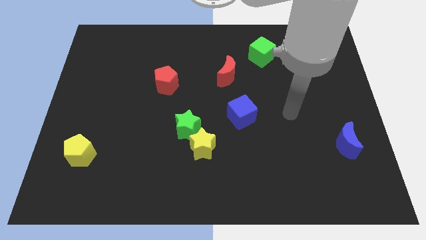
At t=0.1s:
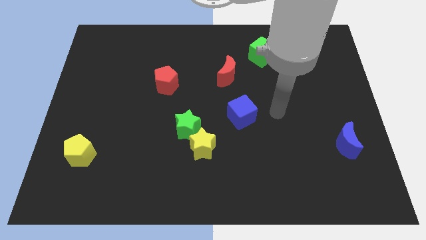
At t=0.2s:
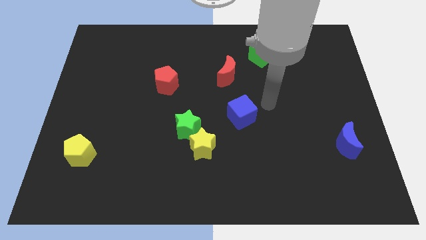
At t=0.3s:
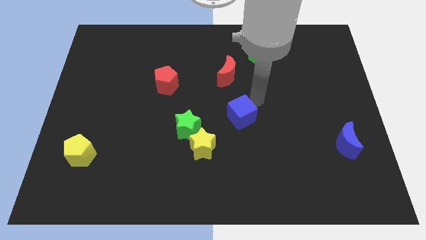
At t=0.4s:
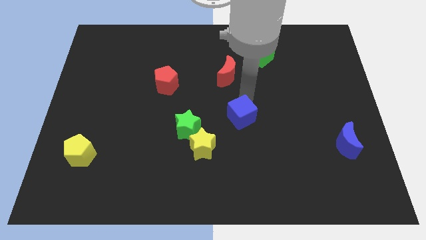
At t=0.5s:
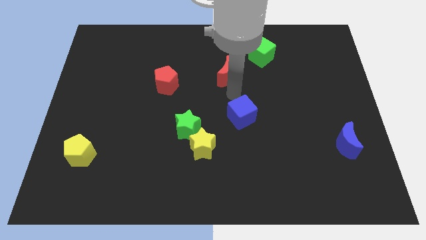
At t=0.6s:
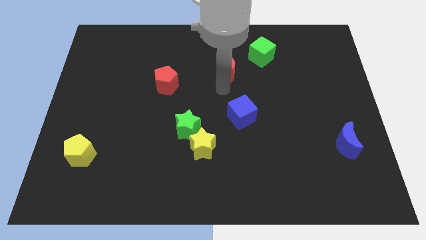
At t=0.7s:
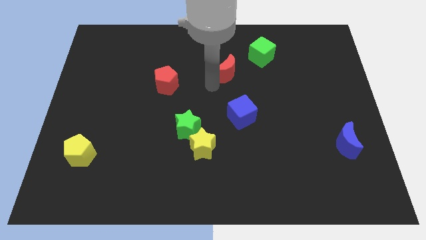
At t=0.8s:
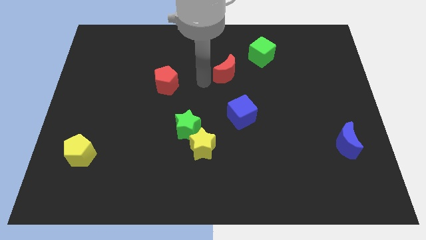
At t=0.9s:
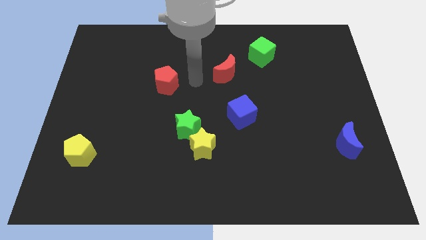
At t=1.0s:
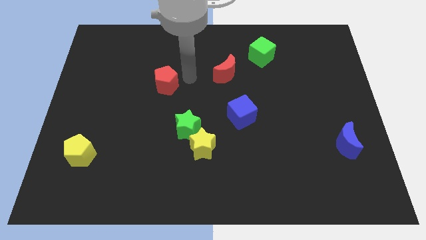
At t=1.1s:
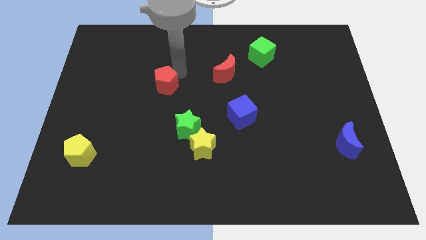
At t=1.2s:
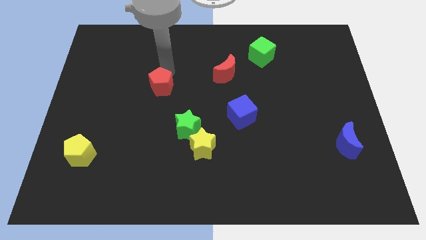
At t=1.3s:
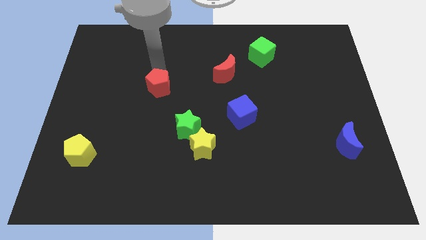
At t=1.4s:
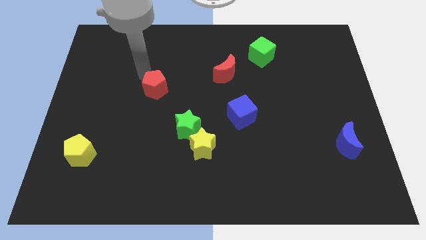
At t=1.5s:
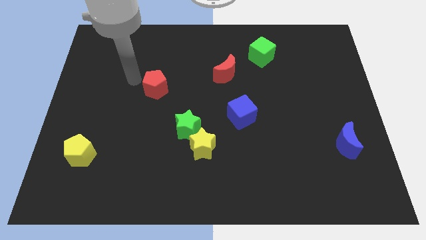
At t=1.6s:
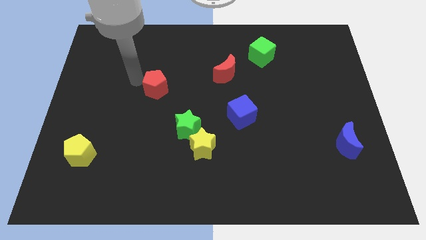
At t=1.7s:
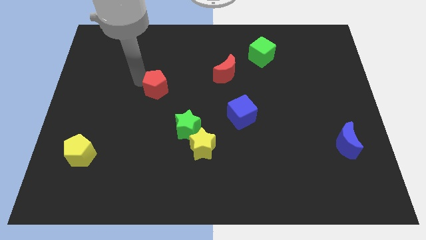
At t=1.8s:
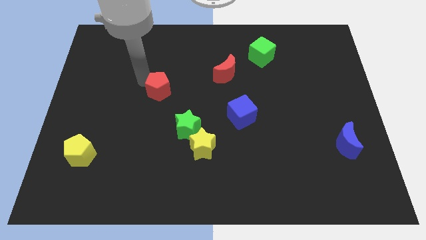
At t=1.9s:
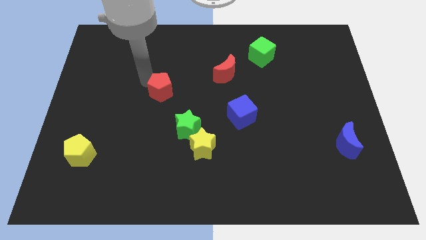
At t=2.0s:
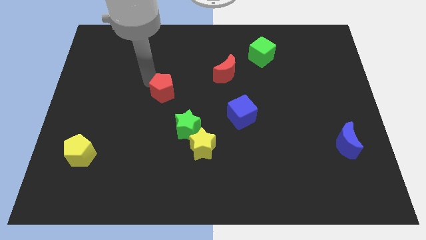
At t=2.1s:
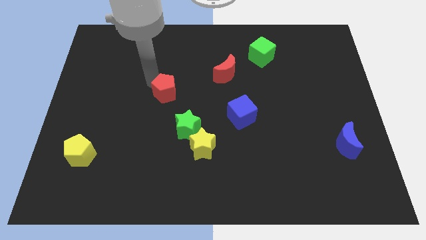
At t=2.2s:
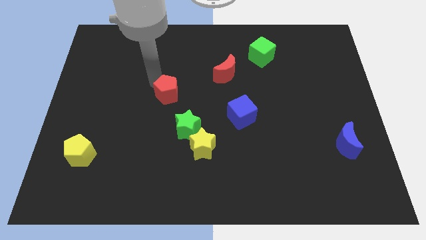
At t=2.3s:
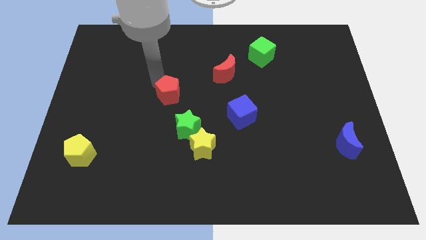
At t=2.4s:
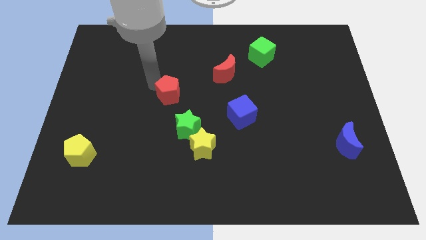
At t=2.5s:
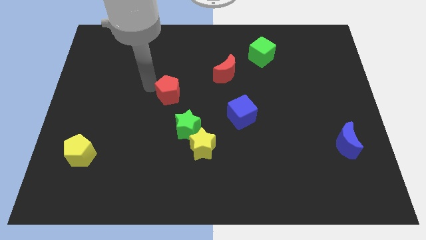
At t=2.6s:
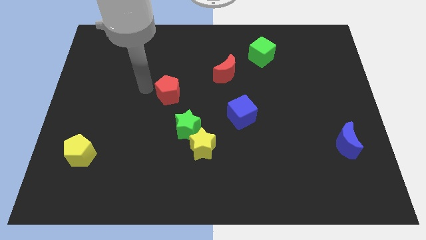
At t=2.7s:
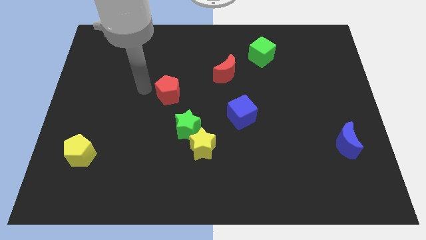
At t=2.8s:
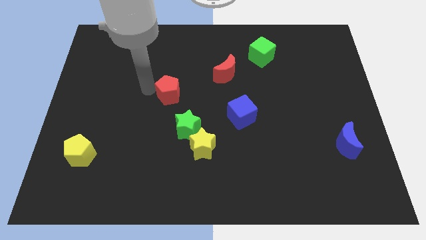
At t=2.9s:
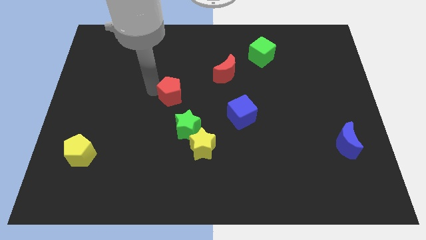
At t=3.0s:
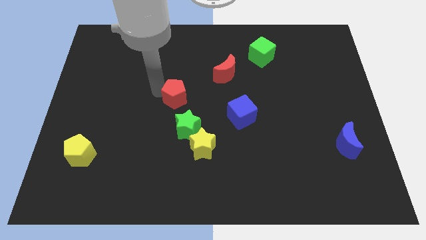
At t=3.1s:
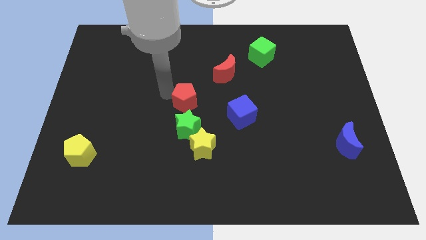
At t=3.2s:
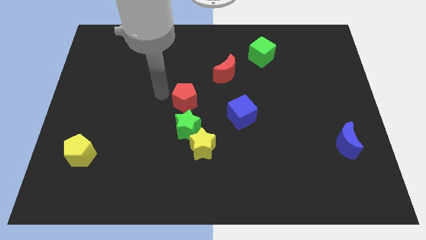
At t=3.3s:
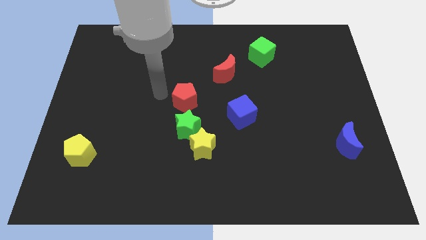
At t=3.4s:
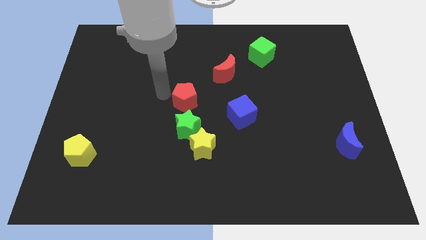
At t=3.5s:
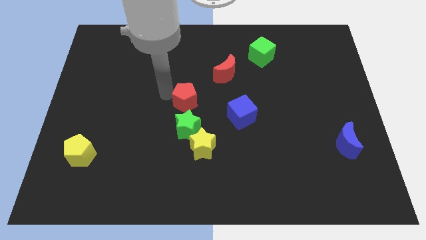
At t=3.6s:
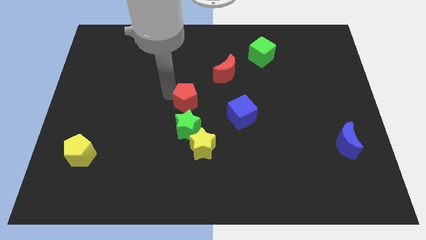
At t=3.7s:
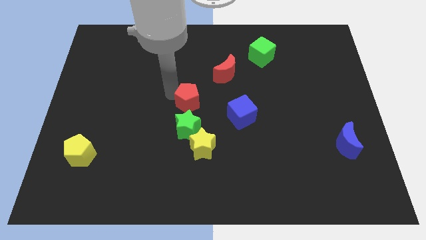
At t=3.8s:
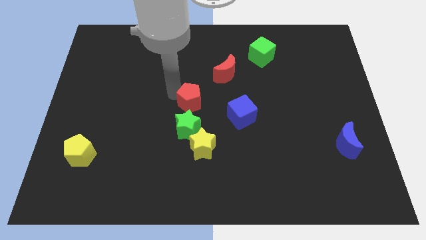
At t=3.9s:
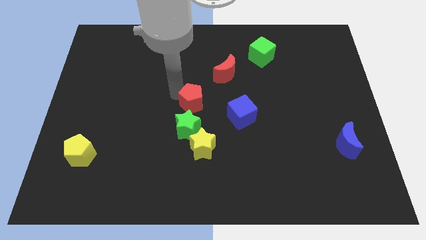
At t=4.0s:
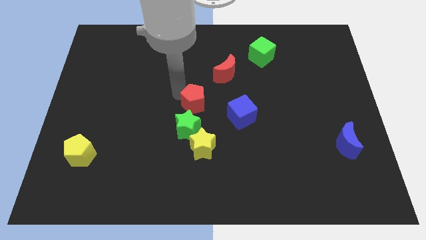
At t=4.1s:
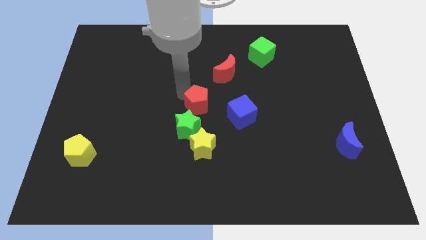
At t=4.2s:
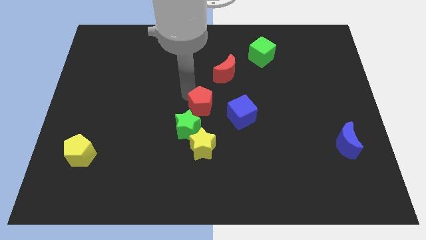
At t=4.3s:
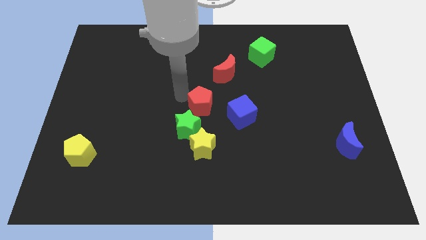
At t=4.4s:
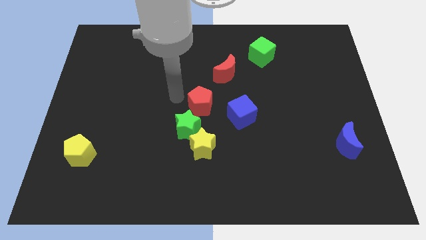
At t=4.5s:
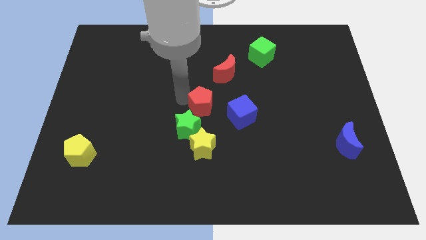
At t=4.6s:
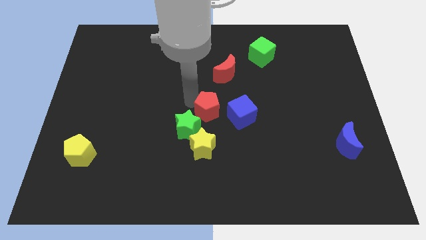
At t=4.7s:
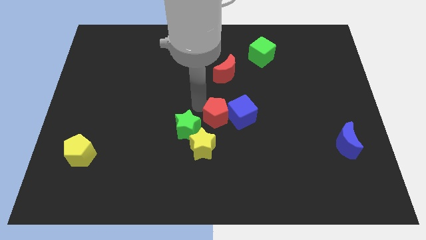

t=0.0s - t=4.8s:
move the red pentagon close to the blue cube

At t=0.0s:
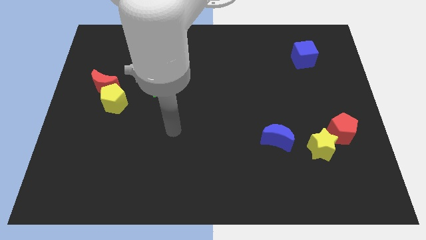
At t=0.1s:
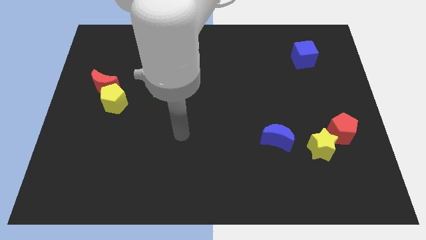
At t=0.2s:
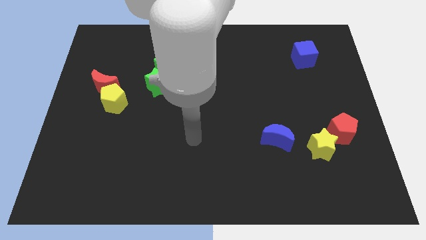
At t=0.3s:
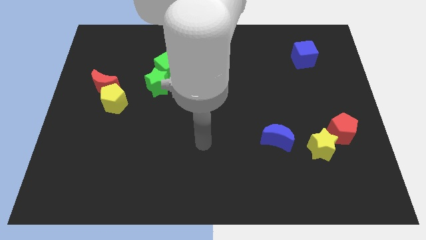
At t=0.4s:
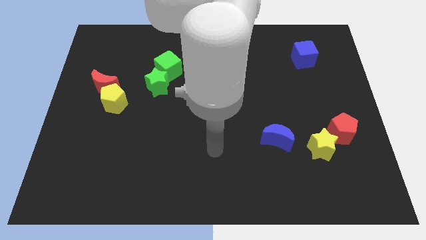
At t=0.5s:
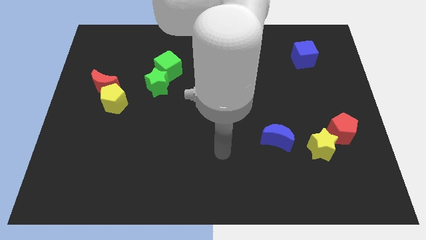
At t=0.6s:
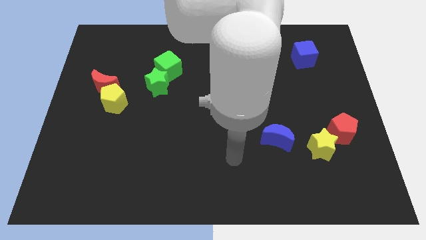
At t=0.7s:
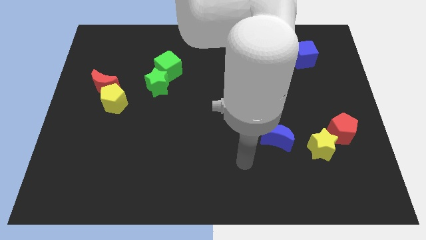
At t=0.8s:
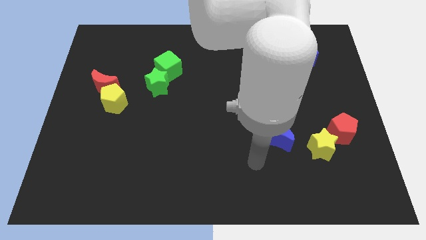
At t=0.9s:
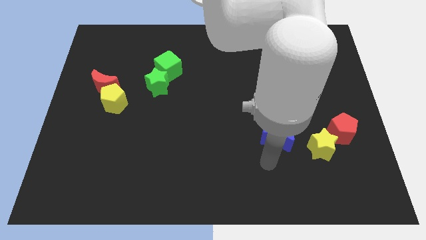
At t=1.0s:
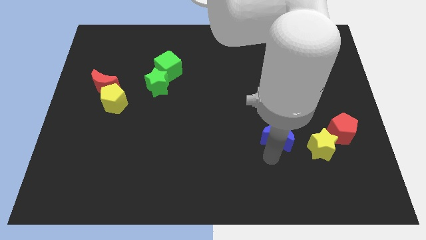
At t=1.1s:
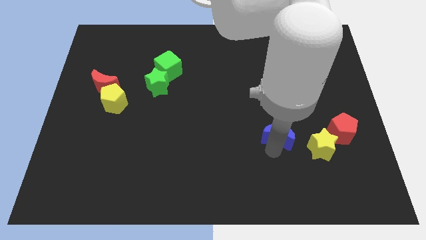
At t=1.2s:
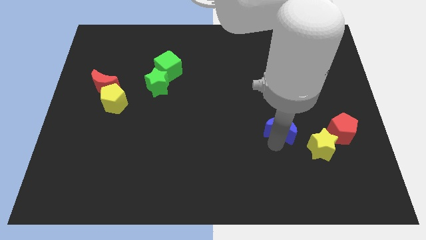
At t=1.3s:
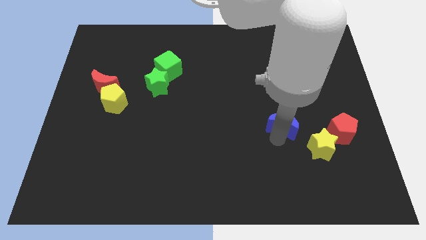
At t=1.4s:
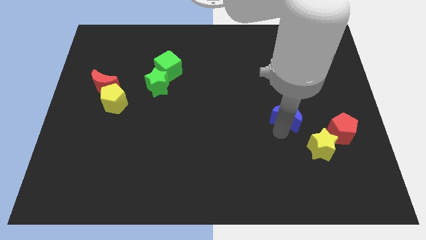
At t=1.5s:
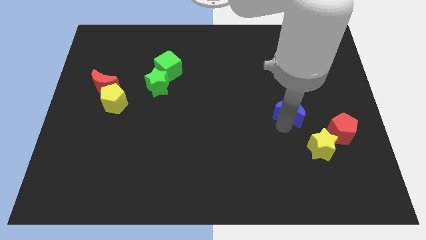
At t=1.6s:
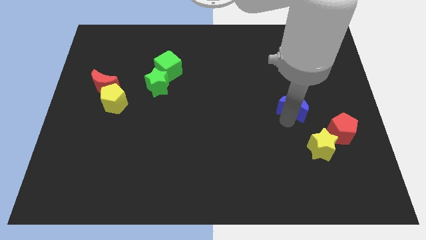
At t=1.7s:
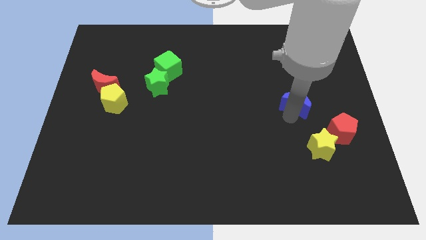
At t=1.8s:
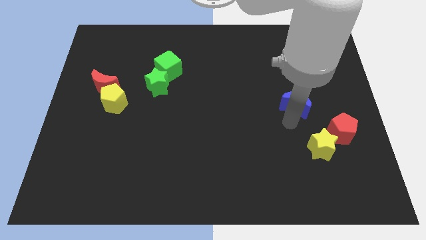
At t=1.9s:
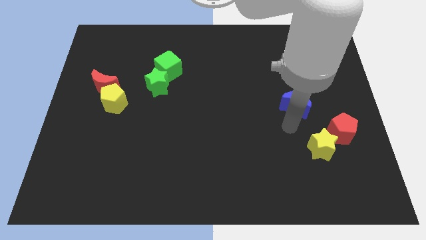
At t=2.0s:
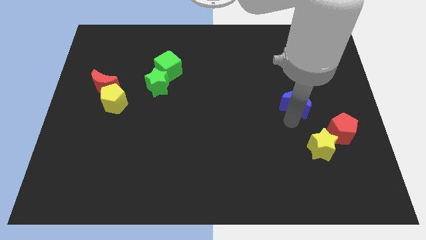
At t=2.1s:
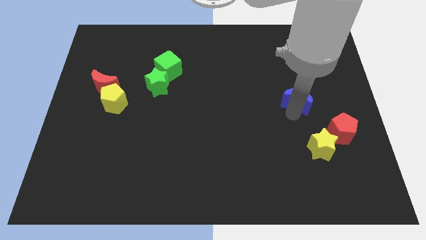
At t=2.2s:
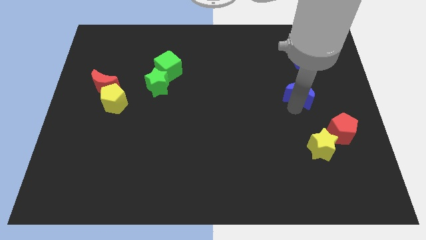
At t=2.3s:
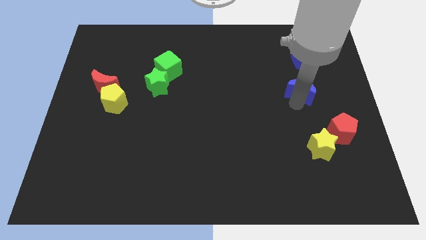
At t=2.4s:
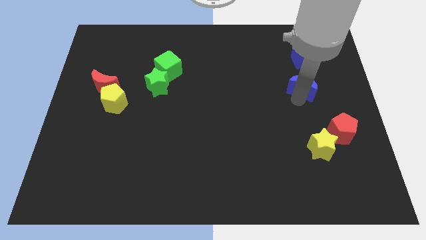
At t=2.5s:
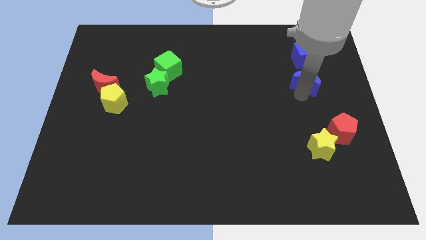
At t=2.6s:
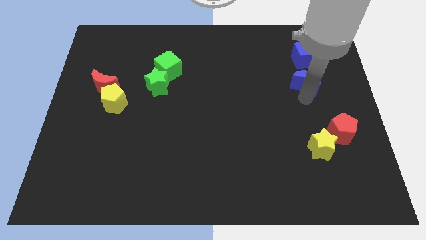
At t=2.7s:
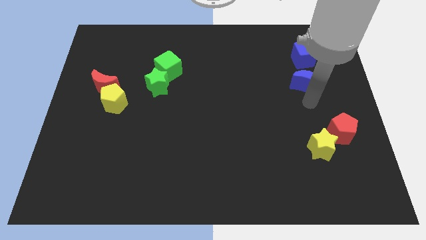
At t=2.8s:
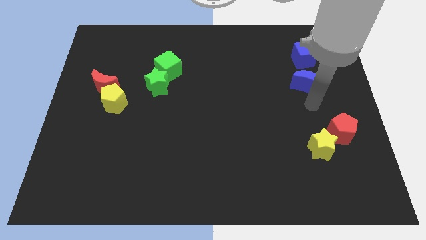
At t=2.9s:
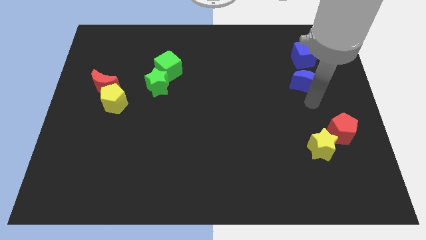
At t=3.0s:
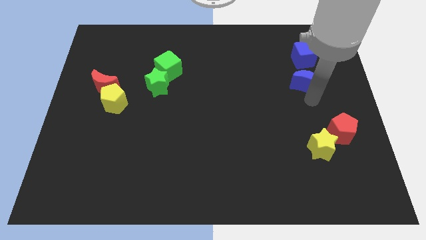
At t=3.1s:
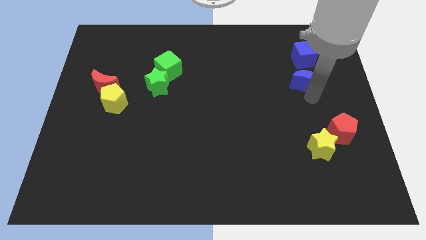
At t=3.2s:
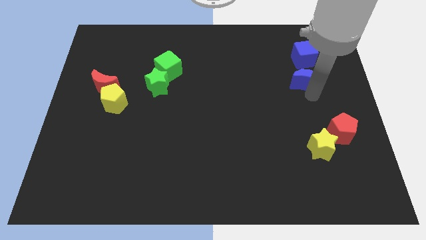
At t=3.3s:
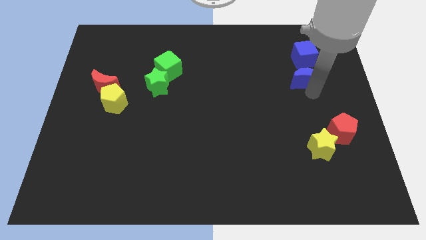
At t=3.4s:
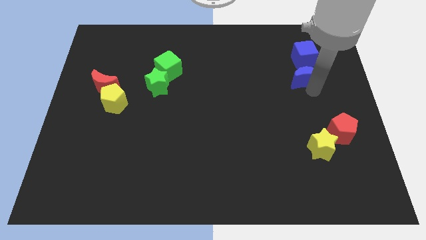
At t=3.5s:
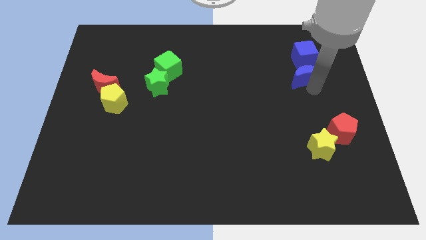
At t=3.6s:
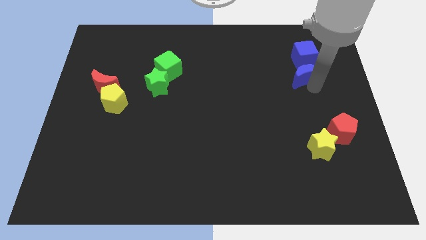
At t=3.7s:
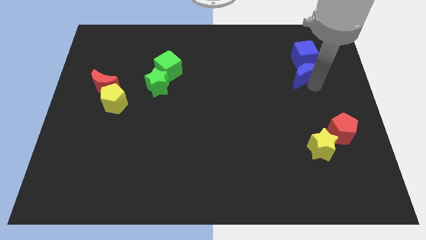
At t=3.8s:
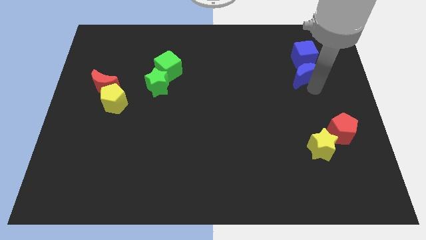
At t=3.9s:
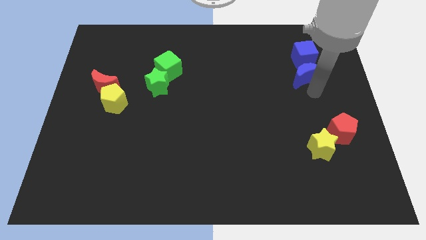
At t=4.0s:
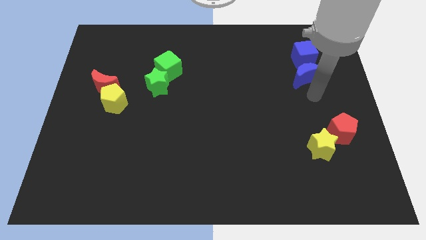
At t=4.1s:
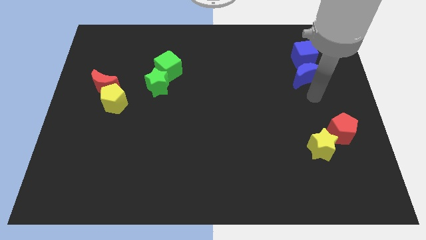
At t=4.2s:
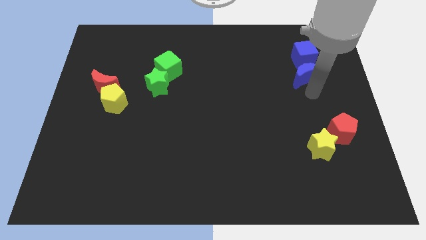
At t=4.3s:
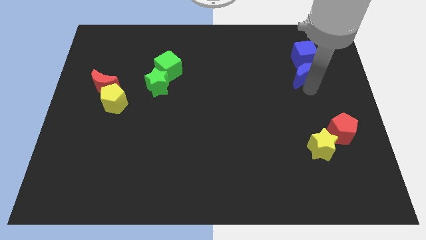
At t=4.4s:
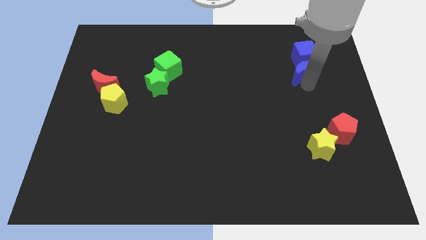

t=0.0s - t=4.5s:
move the blue moon next to the blue cube
